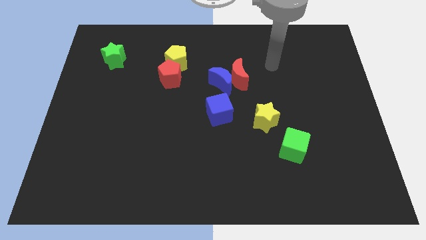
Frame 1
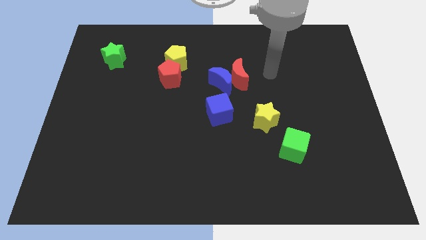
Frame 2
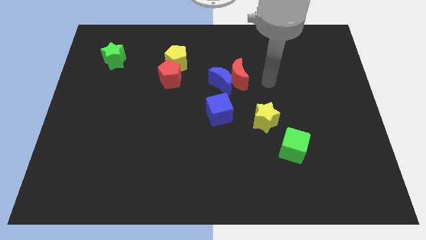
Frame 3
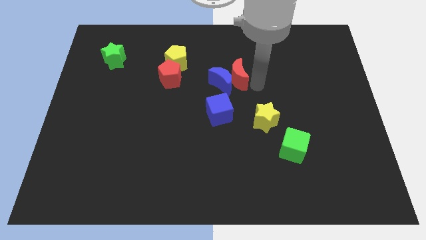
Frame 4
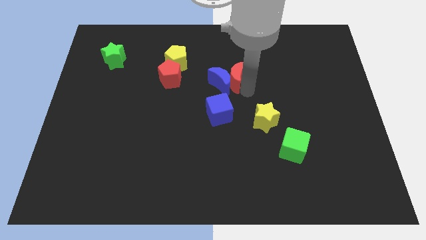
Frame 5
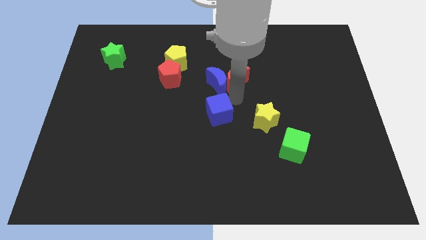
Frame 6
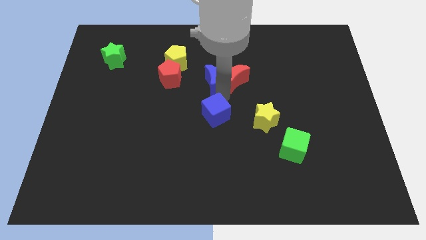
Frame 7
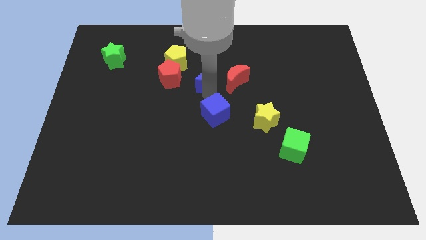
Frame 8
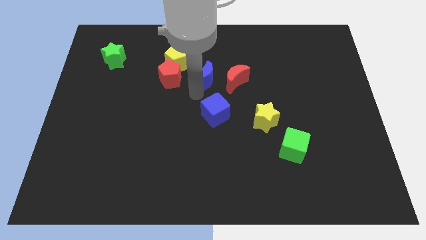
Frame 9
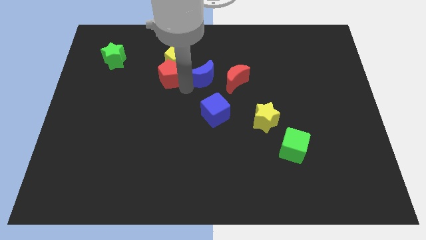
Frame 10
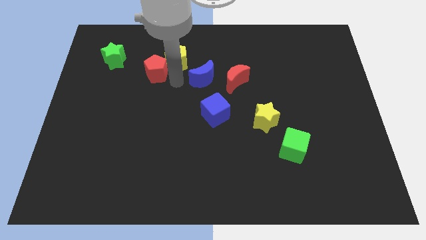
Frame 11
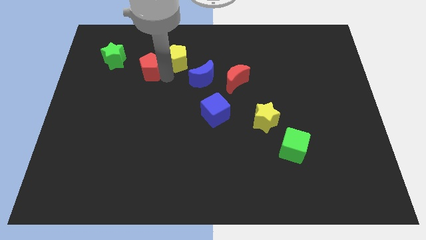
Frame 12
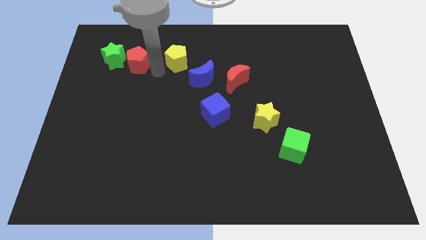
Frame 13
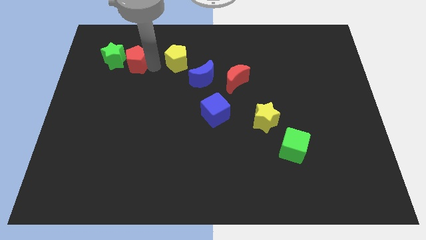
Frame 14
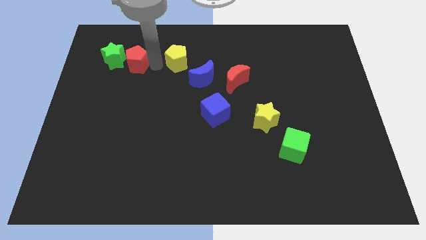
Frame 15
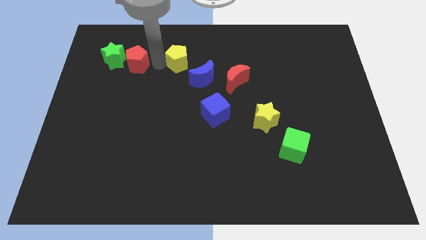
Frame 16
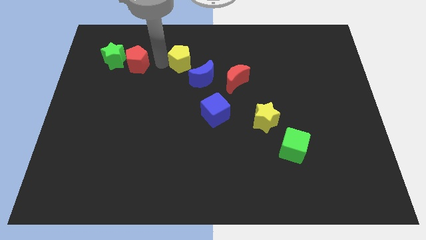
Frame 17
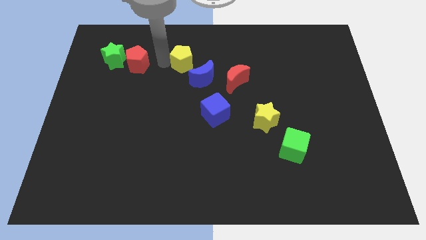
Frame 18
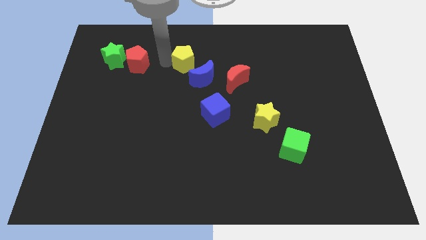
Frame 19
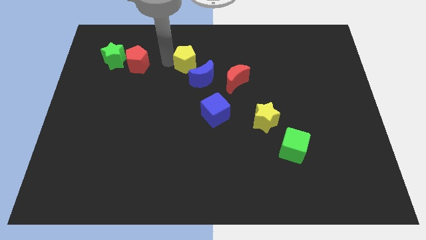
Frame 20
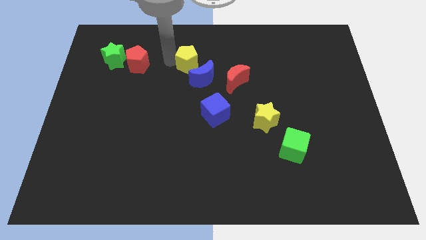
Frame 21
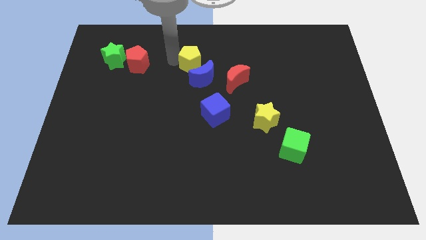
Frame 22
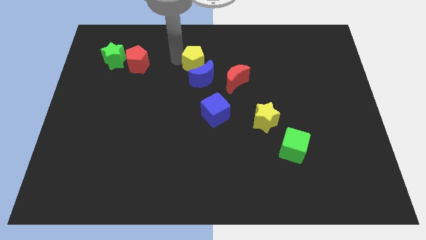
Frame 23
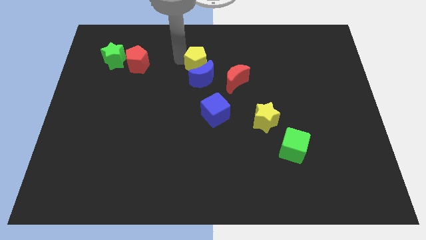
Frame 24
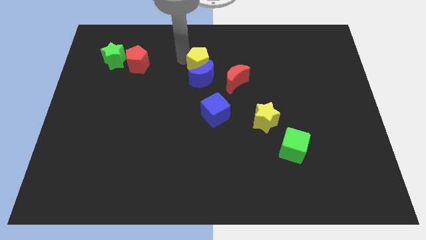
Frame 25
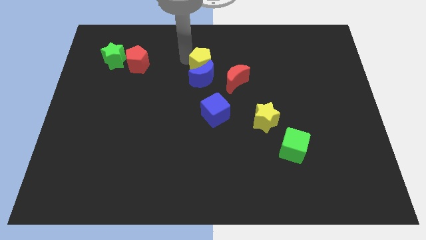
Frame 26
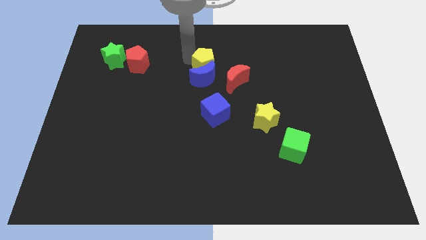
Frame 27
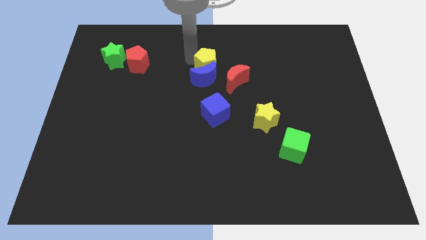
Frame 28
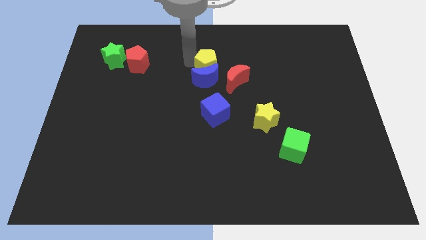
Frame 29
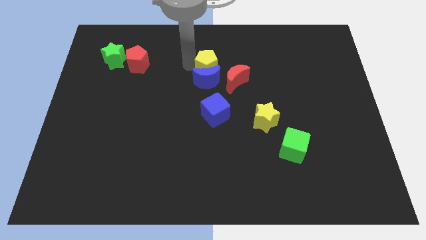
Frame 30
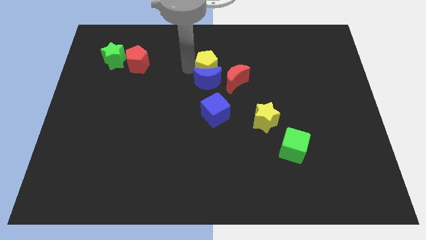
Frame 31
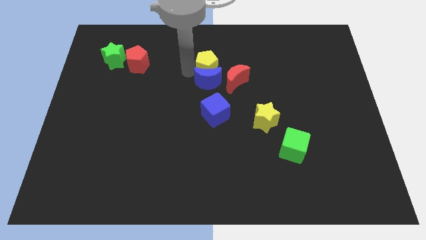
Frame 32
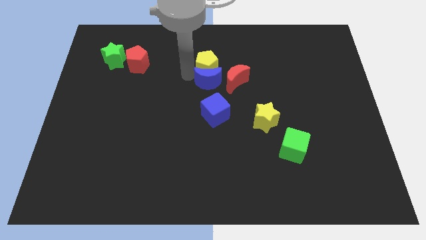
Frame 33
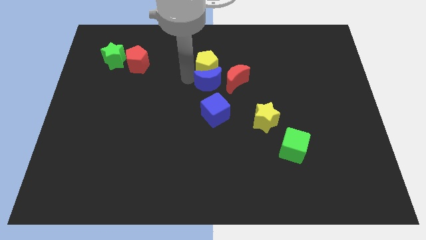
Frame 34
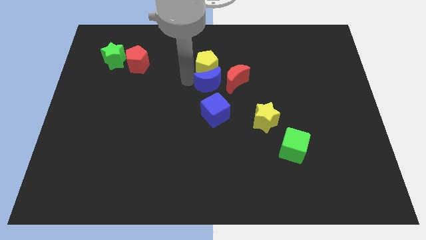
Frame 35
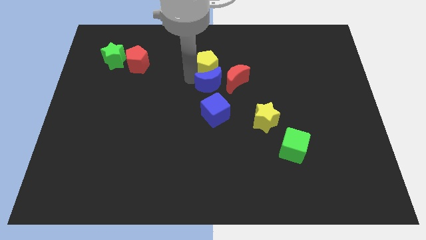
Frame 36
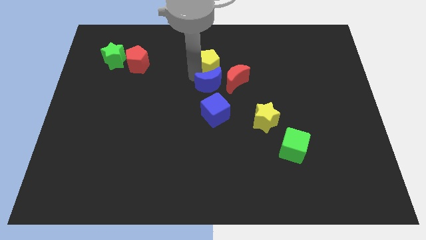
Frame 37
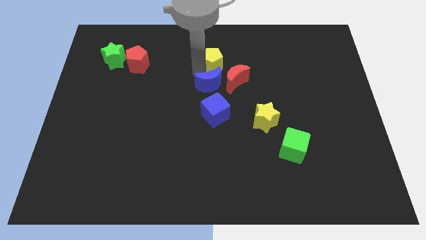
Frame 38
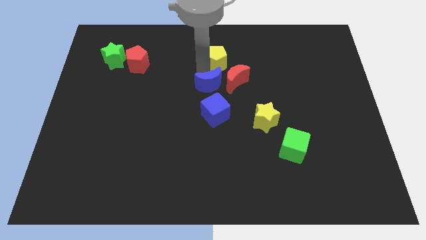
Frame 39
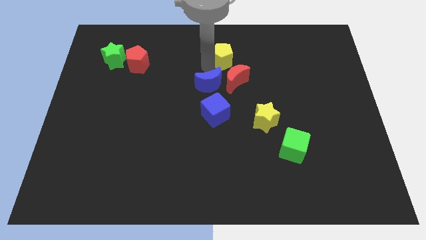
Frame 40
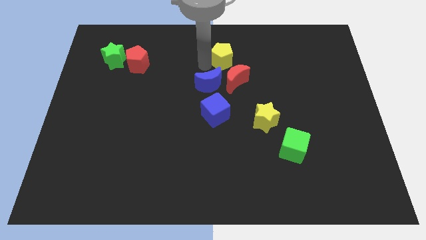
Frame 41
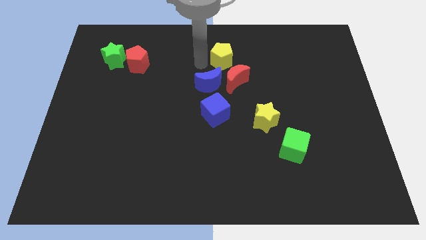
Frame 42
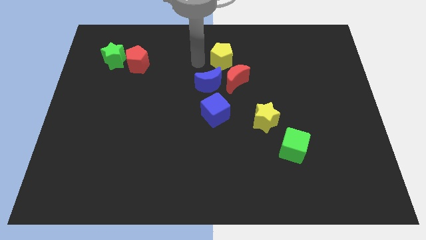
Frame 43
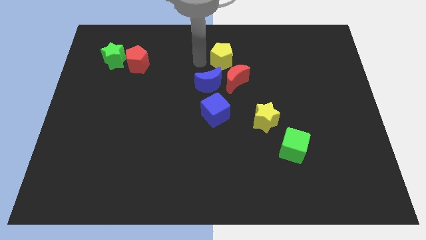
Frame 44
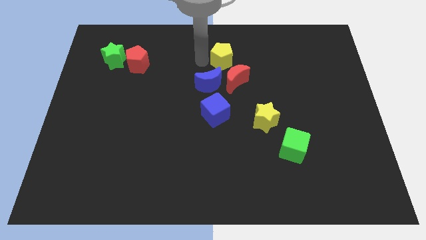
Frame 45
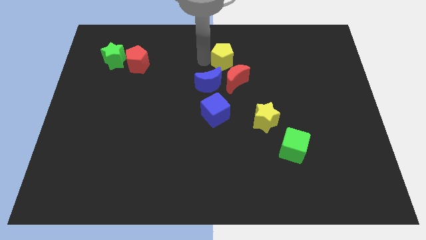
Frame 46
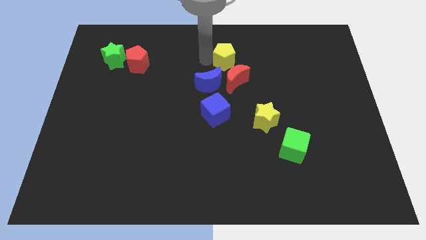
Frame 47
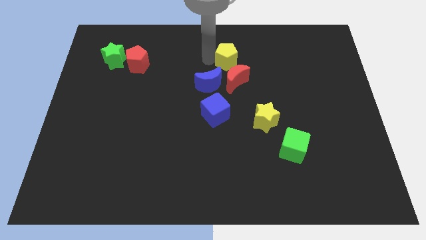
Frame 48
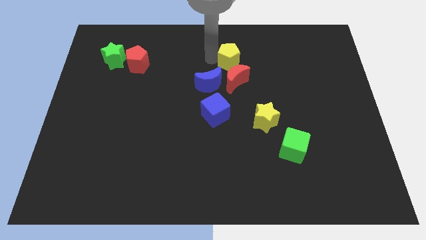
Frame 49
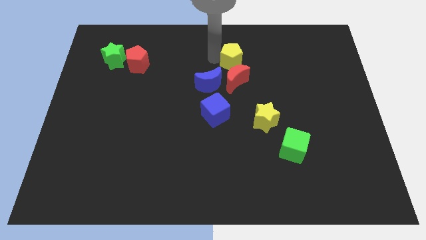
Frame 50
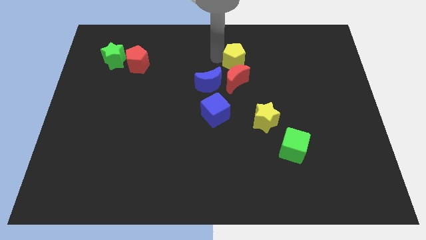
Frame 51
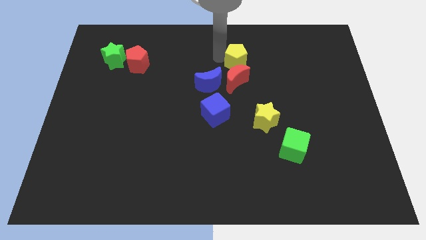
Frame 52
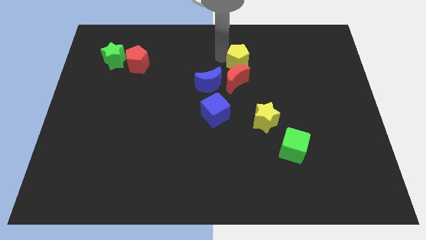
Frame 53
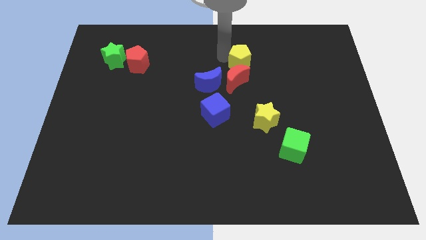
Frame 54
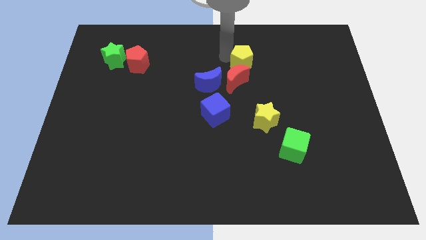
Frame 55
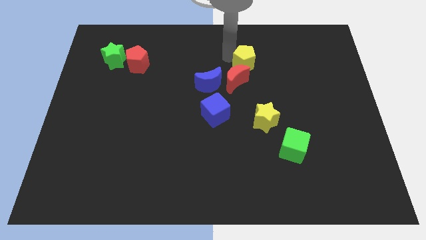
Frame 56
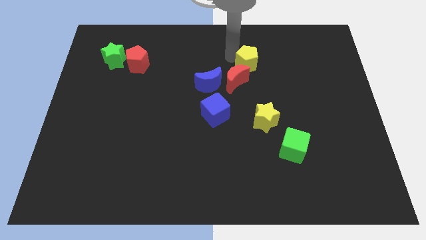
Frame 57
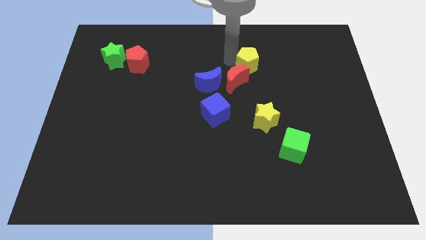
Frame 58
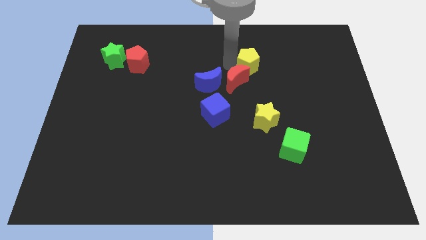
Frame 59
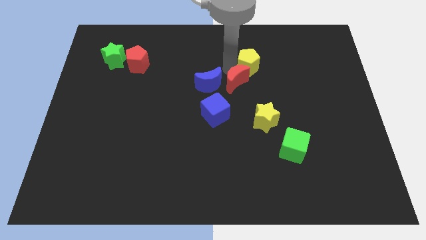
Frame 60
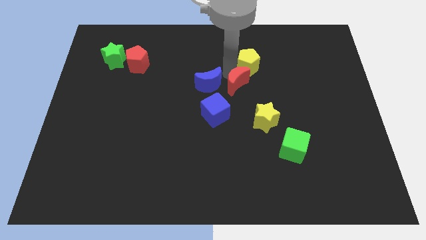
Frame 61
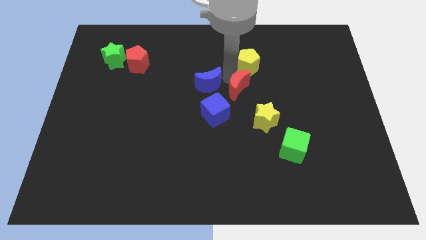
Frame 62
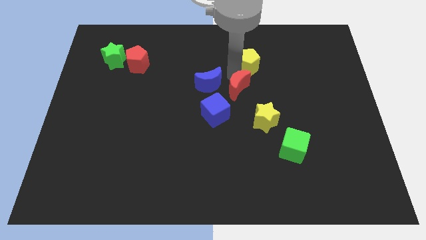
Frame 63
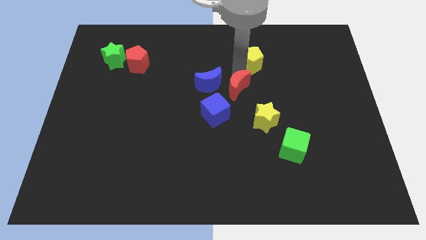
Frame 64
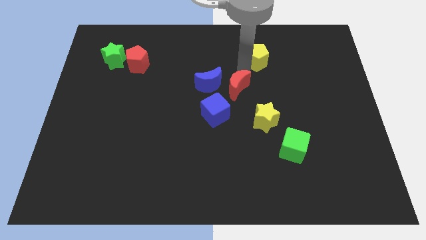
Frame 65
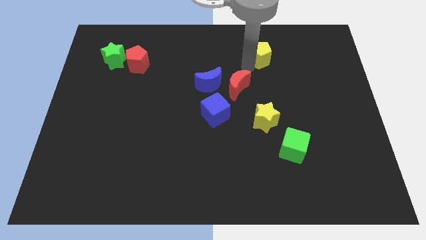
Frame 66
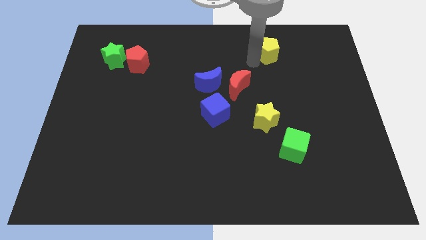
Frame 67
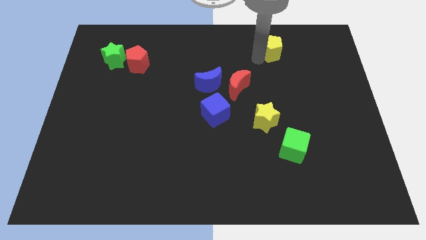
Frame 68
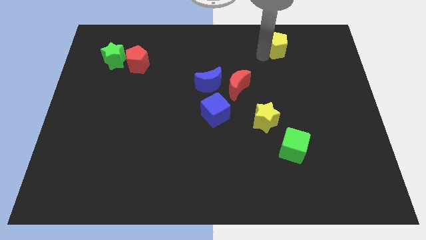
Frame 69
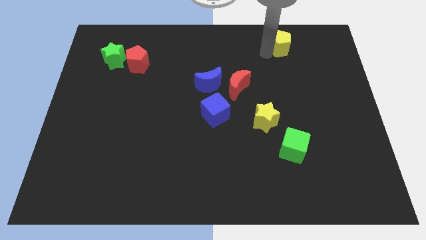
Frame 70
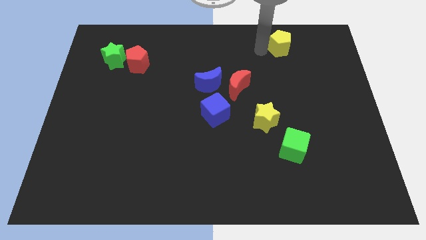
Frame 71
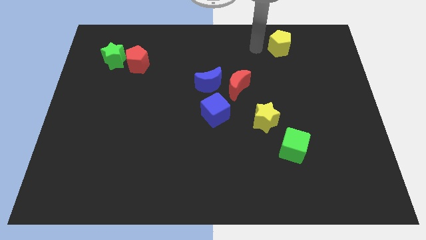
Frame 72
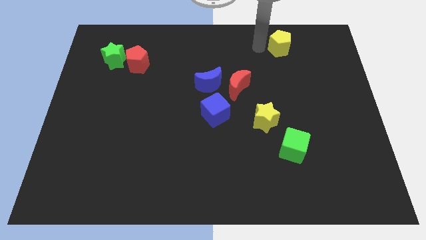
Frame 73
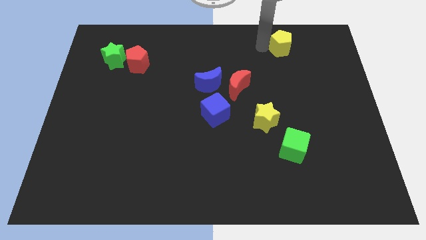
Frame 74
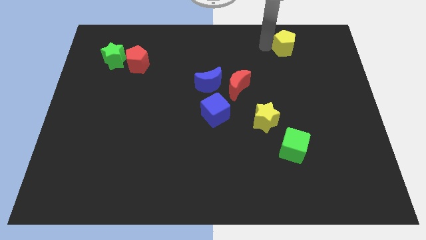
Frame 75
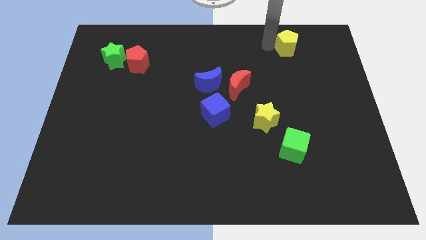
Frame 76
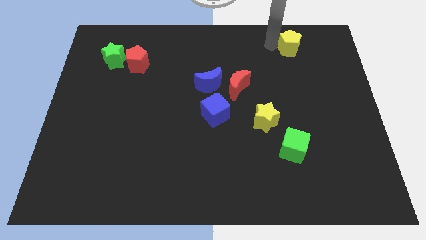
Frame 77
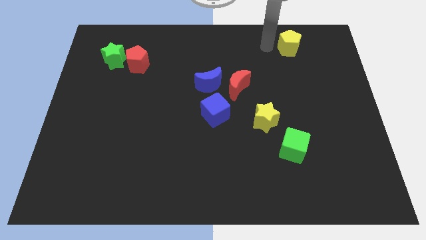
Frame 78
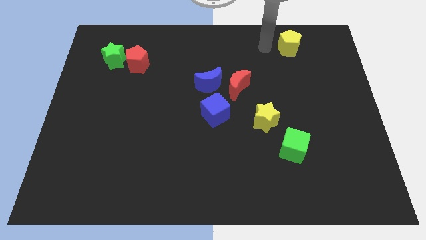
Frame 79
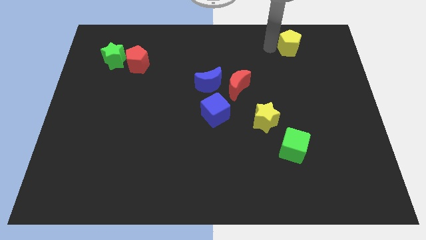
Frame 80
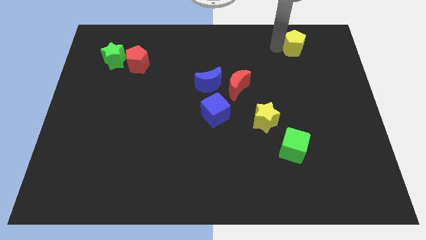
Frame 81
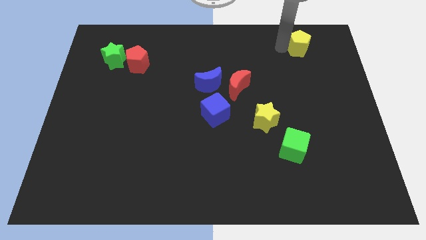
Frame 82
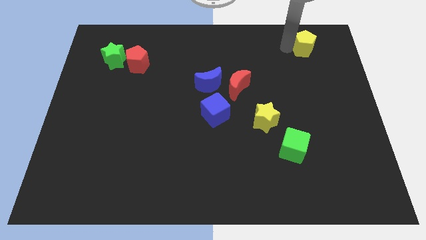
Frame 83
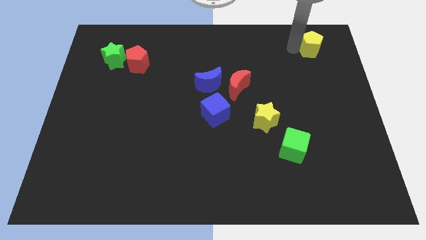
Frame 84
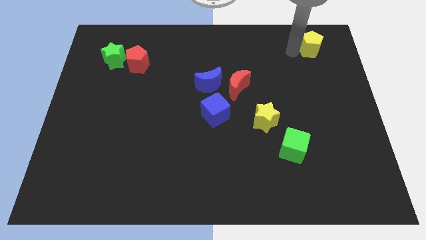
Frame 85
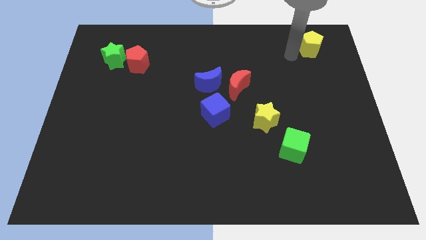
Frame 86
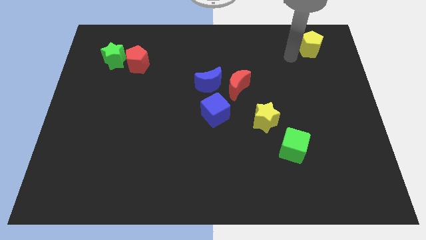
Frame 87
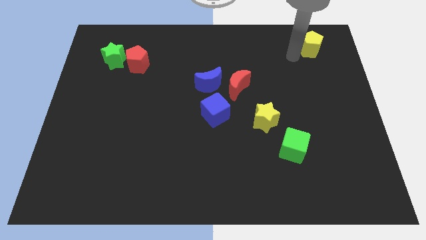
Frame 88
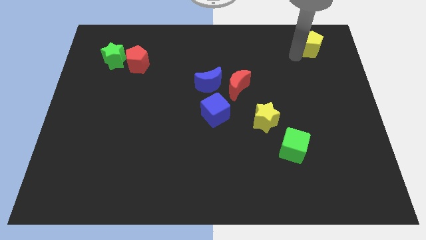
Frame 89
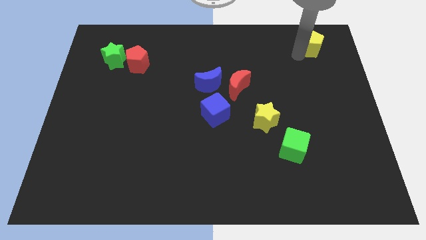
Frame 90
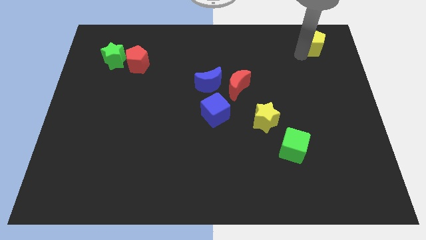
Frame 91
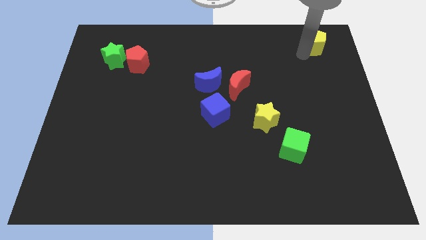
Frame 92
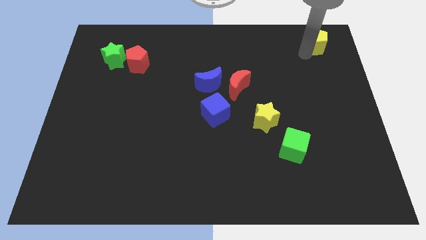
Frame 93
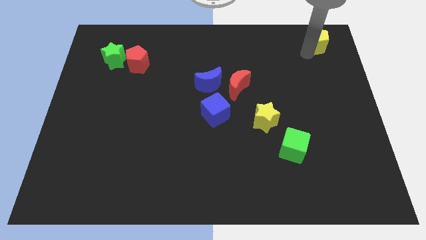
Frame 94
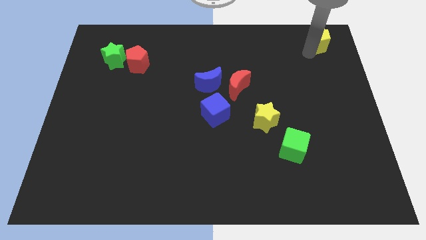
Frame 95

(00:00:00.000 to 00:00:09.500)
move the yellow pentagon to the top right of the board
